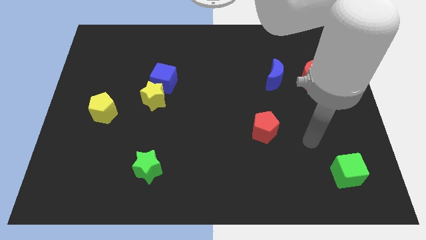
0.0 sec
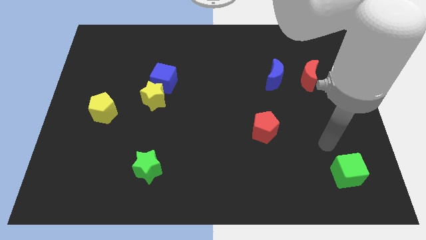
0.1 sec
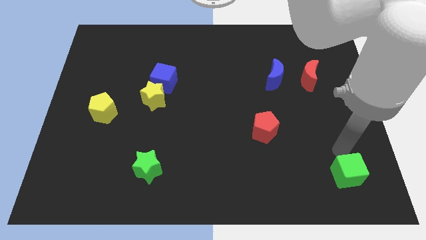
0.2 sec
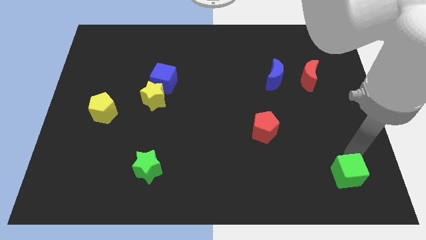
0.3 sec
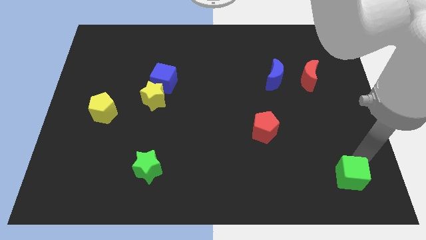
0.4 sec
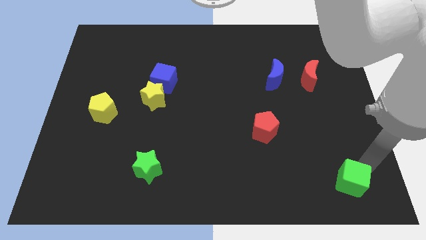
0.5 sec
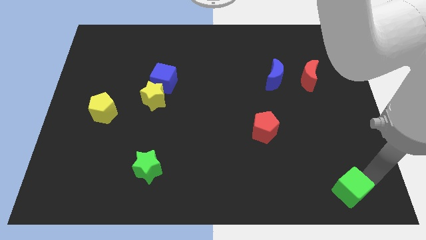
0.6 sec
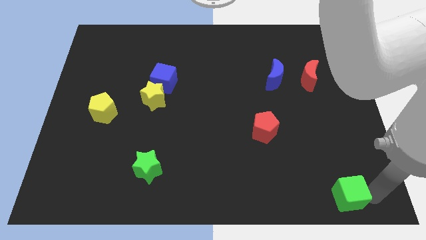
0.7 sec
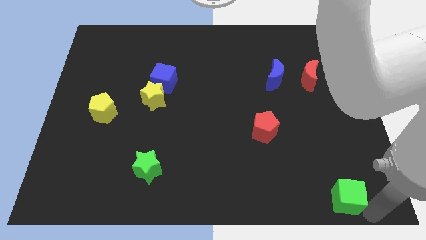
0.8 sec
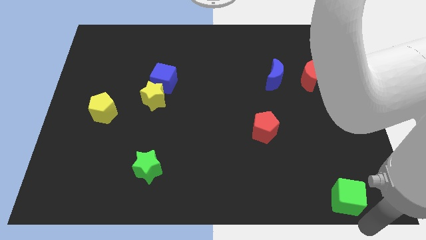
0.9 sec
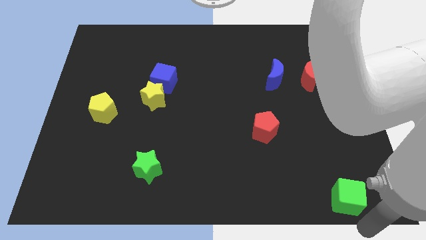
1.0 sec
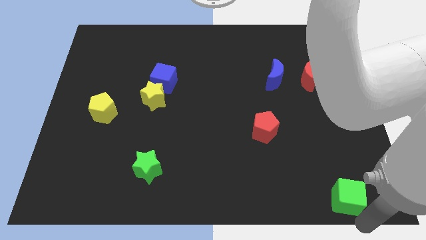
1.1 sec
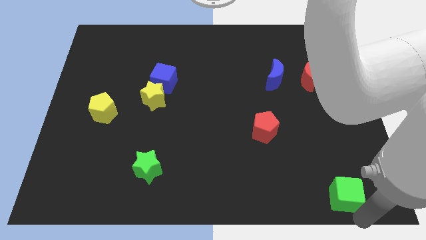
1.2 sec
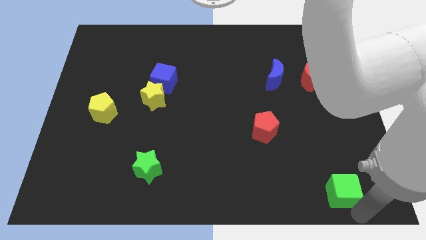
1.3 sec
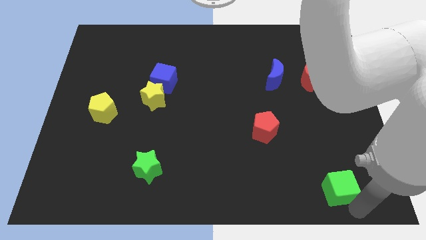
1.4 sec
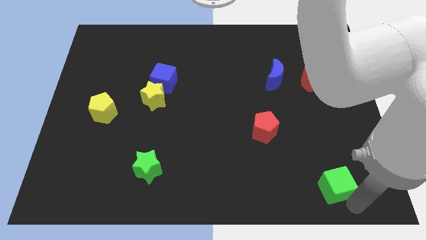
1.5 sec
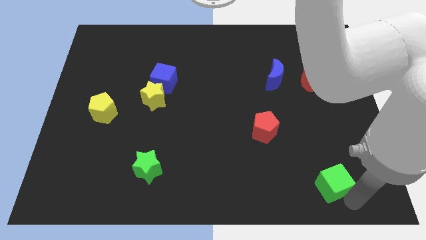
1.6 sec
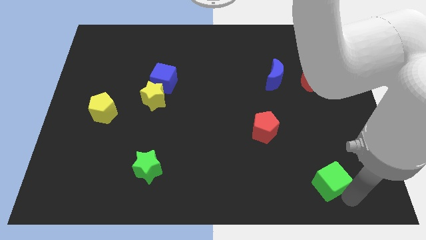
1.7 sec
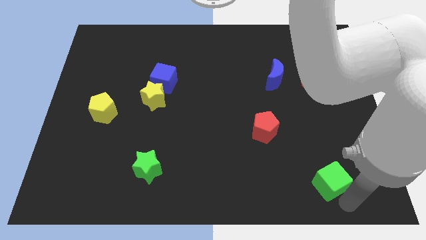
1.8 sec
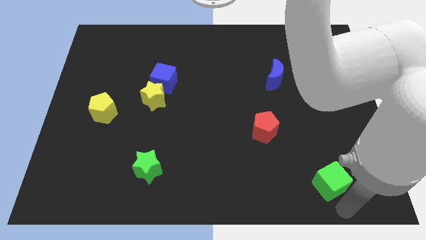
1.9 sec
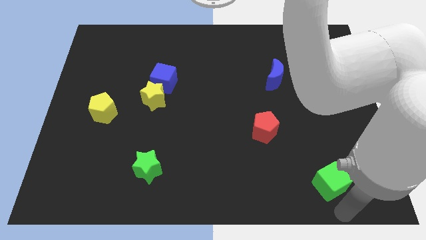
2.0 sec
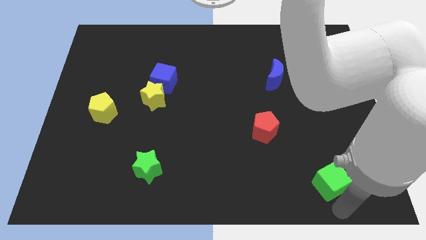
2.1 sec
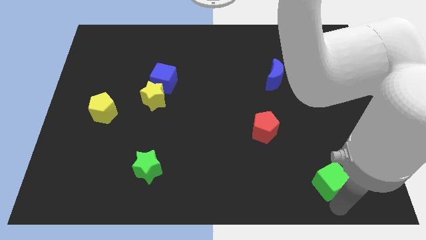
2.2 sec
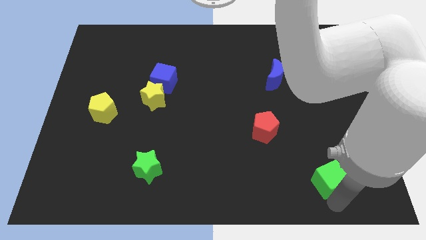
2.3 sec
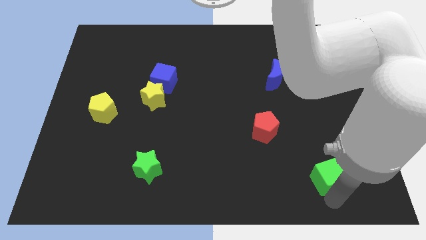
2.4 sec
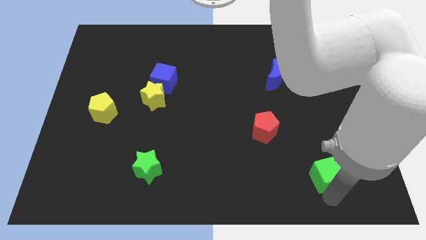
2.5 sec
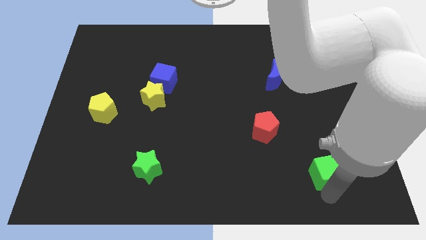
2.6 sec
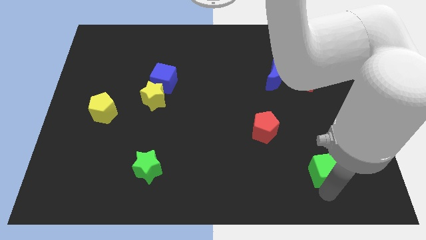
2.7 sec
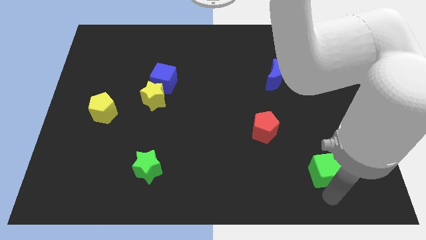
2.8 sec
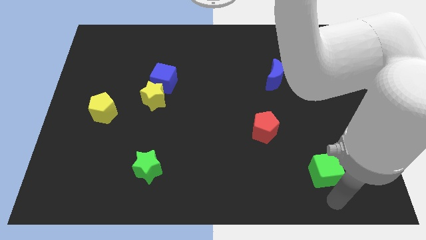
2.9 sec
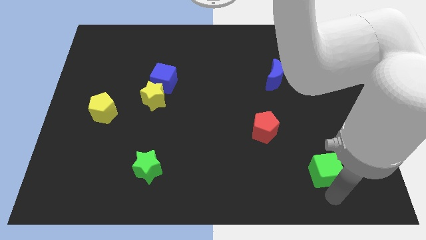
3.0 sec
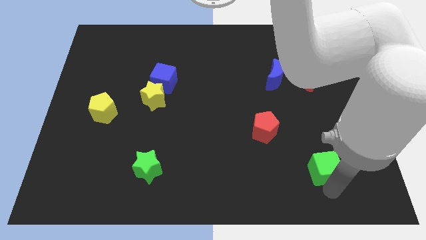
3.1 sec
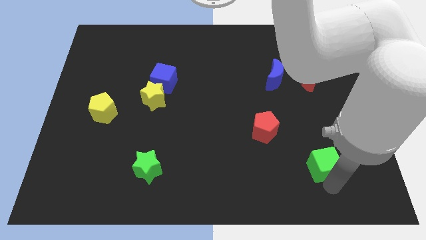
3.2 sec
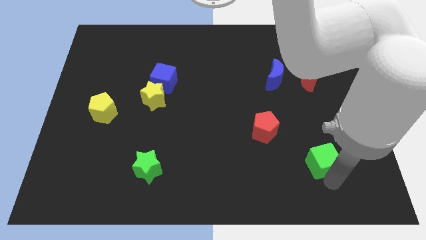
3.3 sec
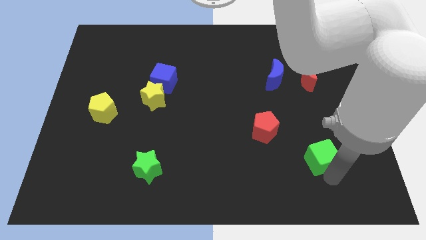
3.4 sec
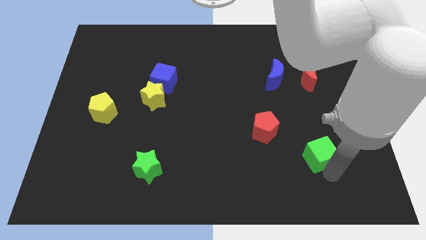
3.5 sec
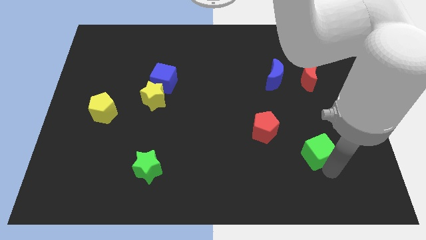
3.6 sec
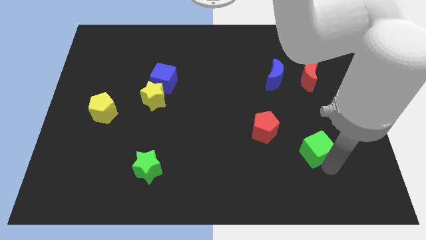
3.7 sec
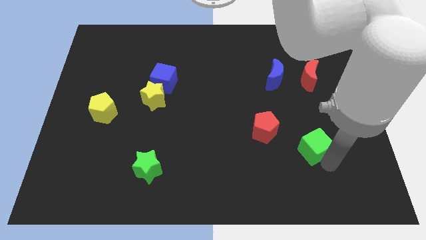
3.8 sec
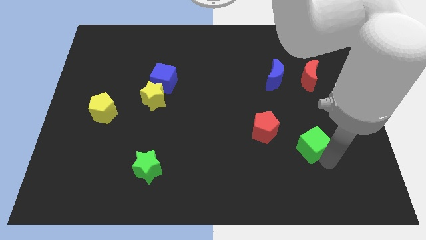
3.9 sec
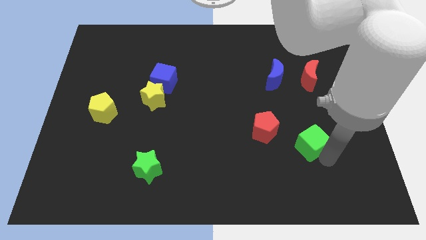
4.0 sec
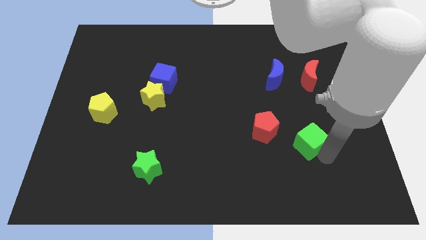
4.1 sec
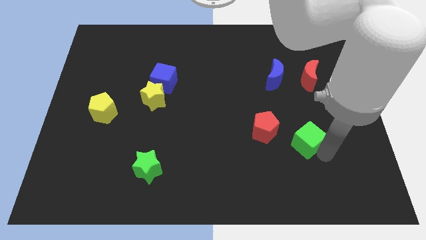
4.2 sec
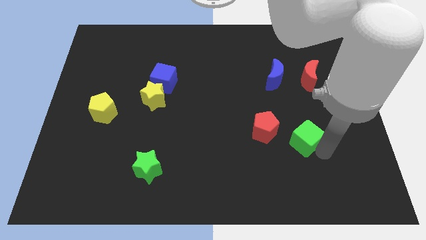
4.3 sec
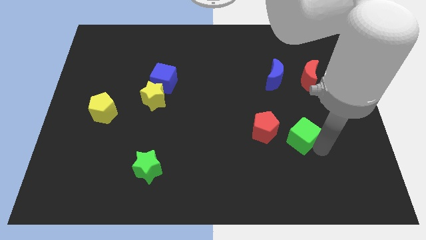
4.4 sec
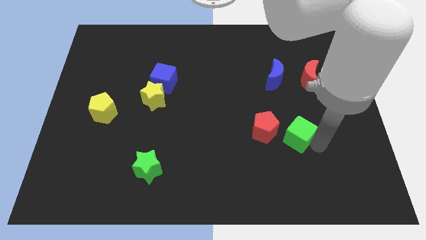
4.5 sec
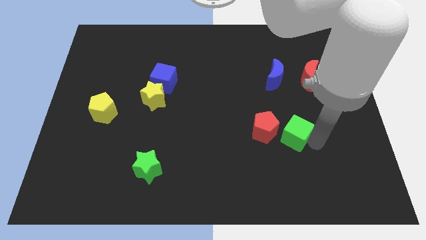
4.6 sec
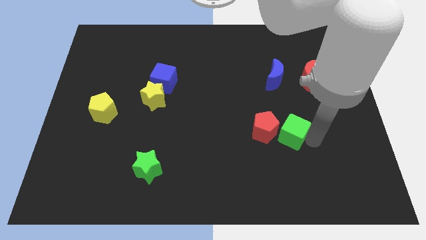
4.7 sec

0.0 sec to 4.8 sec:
slide the green cube to the red pentagon

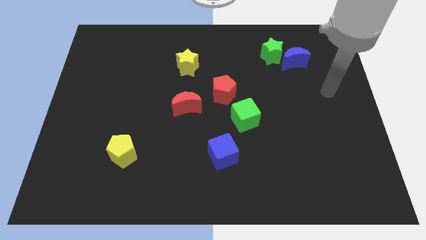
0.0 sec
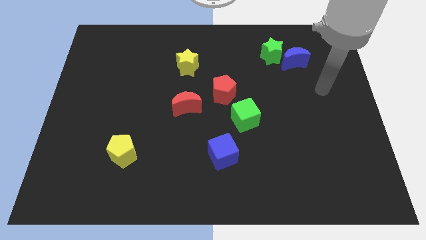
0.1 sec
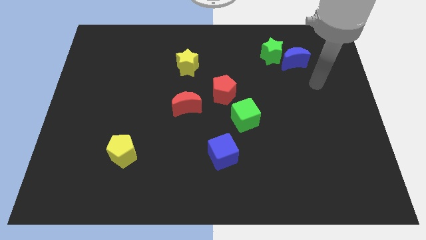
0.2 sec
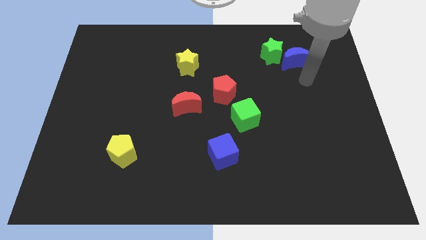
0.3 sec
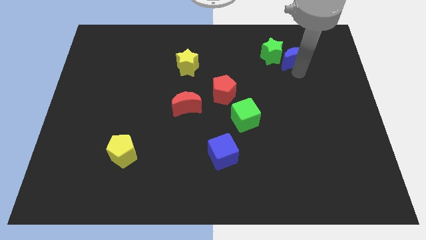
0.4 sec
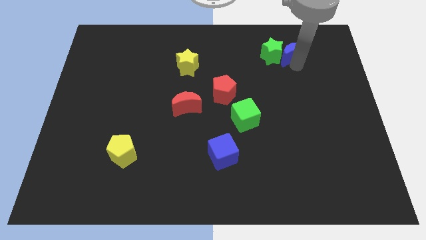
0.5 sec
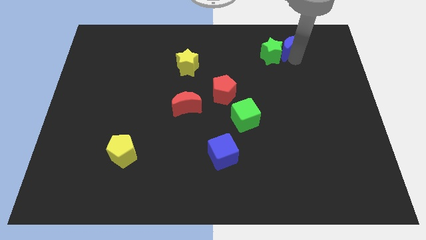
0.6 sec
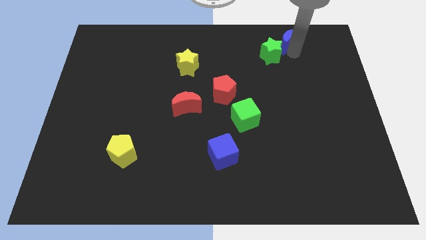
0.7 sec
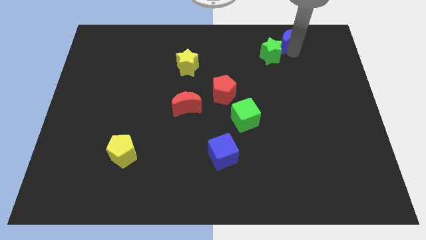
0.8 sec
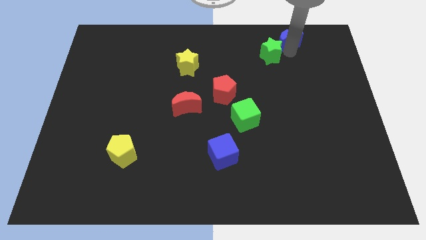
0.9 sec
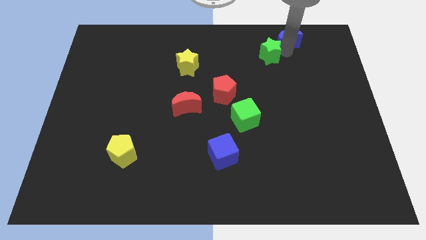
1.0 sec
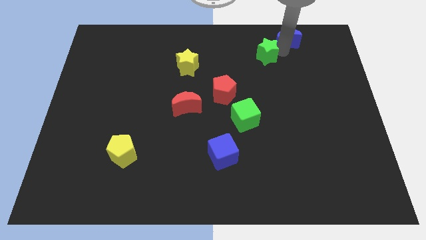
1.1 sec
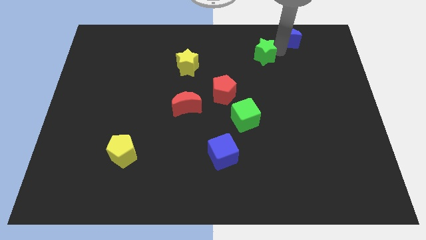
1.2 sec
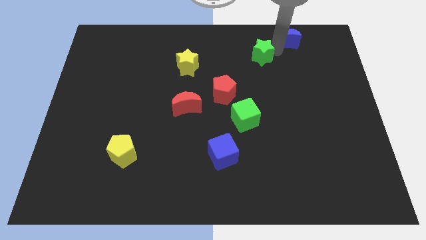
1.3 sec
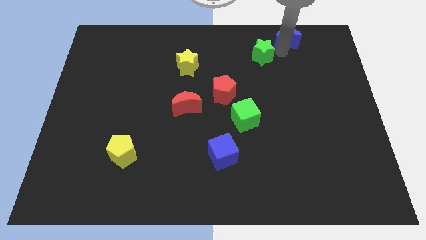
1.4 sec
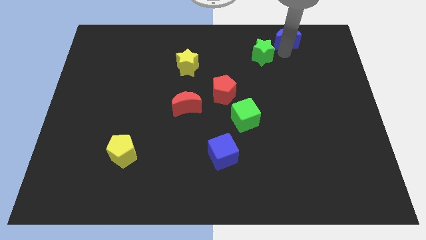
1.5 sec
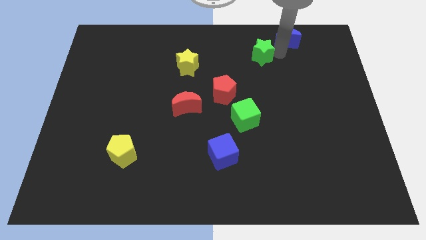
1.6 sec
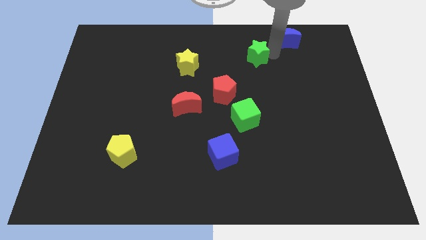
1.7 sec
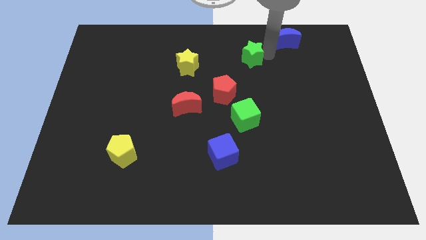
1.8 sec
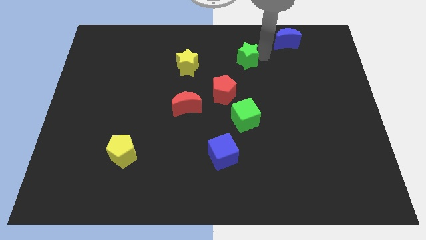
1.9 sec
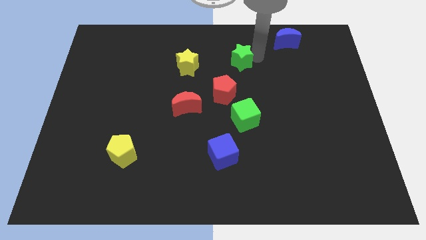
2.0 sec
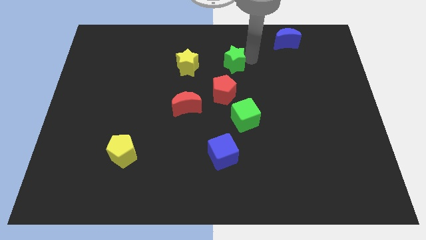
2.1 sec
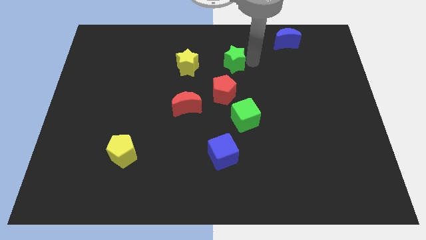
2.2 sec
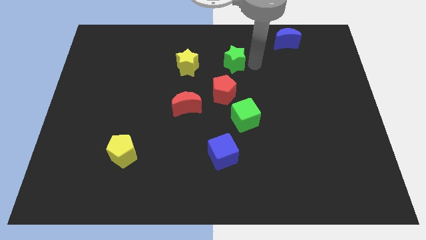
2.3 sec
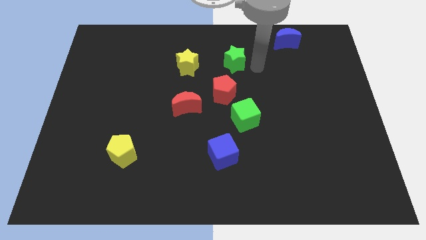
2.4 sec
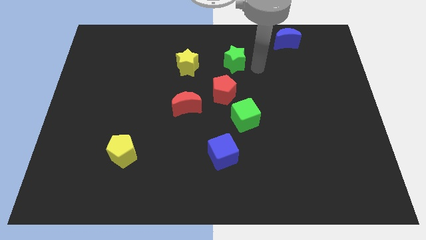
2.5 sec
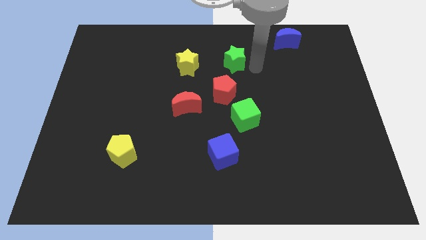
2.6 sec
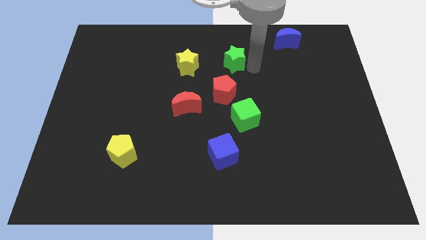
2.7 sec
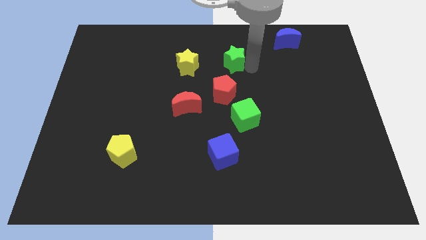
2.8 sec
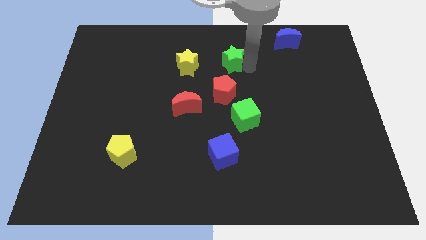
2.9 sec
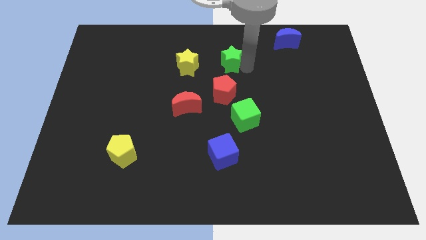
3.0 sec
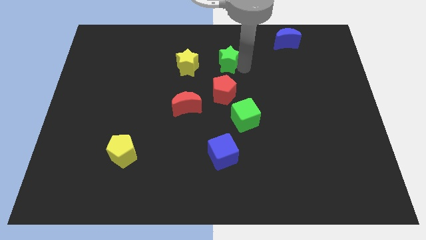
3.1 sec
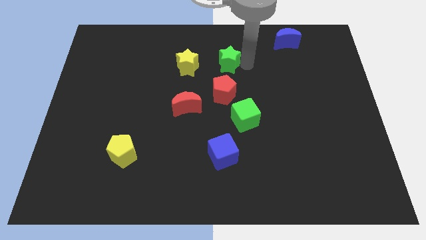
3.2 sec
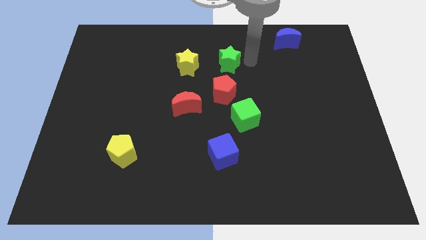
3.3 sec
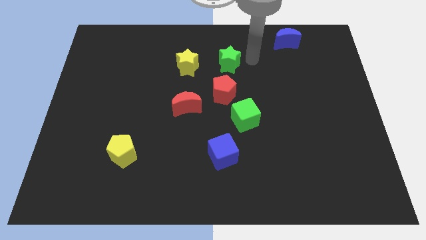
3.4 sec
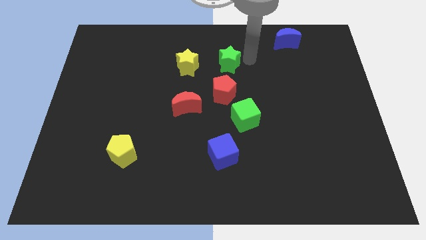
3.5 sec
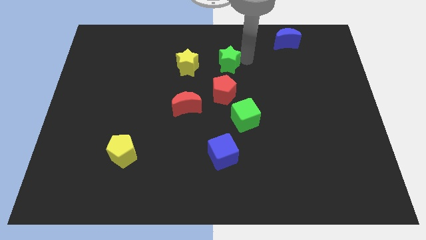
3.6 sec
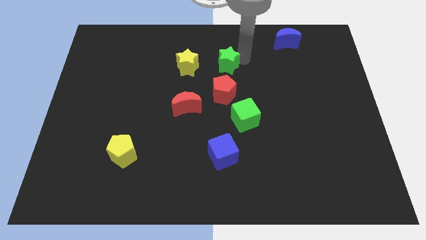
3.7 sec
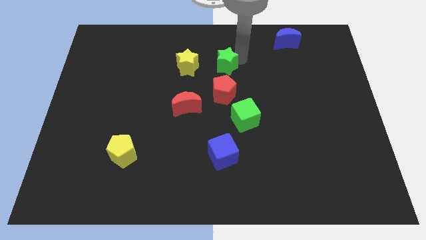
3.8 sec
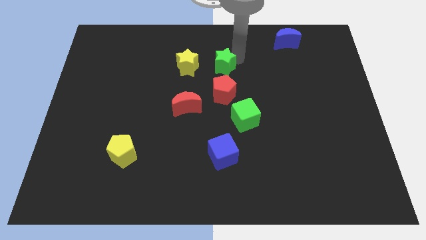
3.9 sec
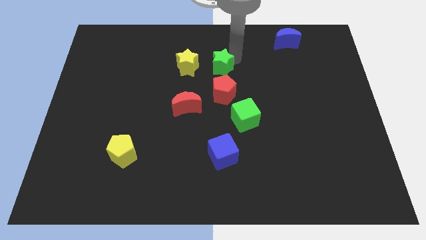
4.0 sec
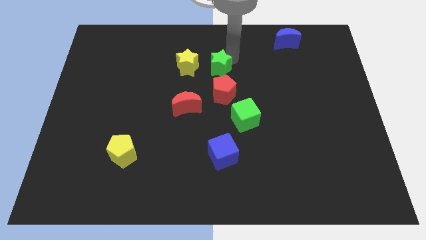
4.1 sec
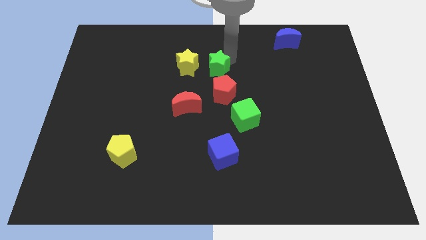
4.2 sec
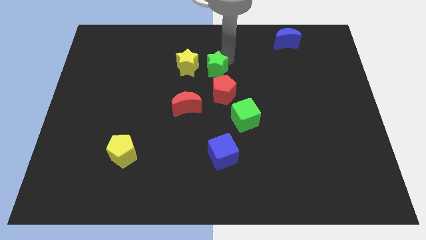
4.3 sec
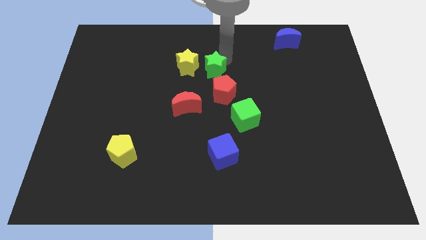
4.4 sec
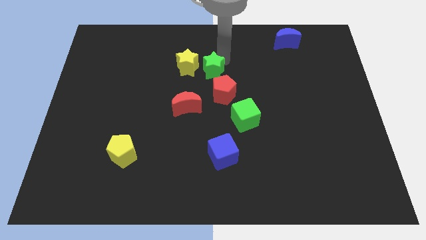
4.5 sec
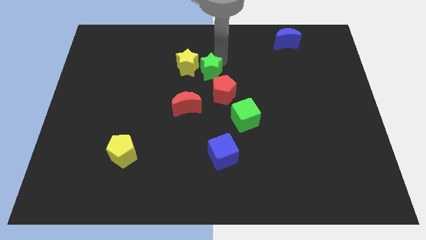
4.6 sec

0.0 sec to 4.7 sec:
put the green star close to the yellow star
